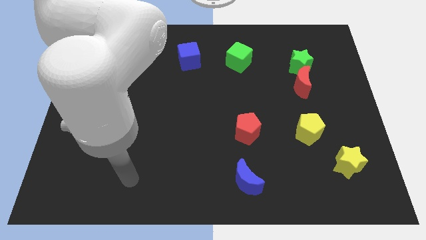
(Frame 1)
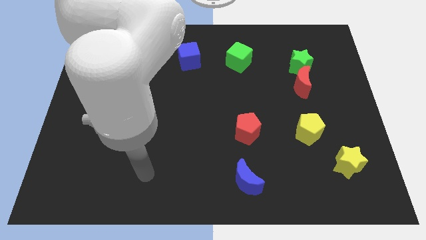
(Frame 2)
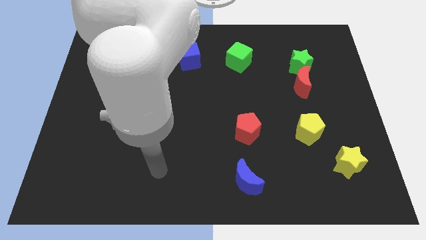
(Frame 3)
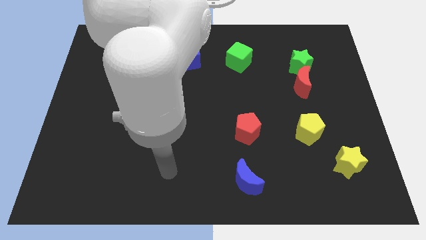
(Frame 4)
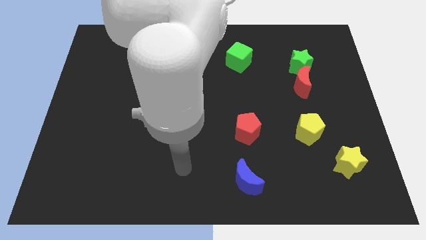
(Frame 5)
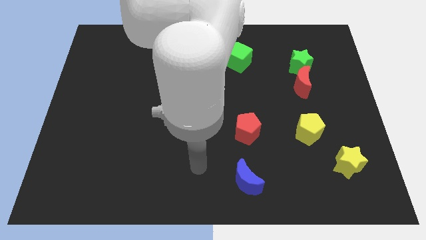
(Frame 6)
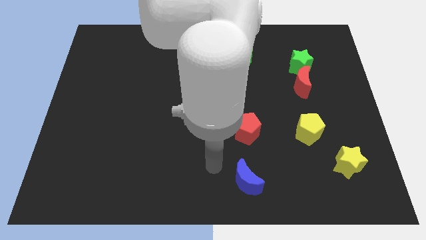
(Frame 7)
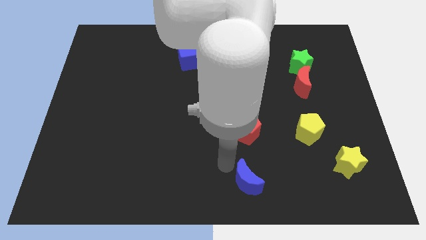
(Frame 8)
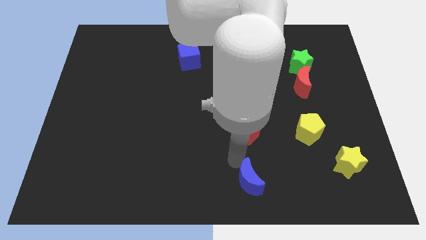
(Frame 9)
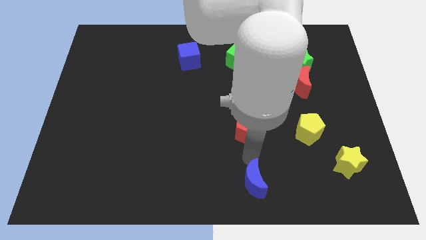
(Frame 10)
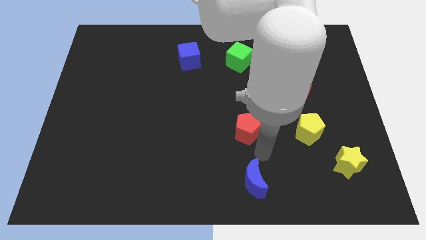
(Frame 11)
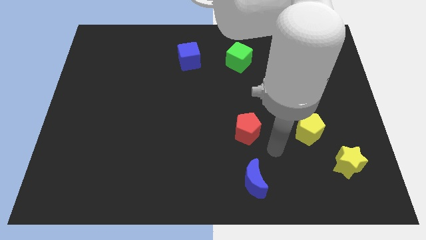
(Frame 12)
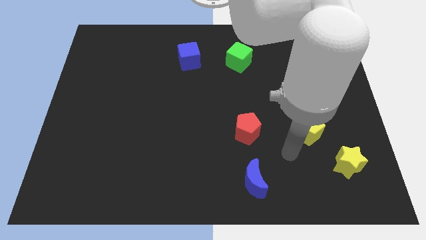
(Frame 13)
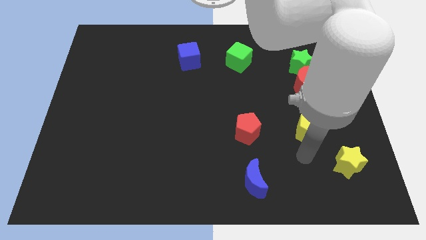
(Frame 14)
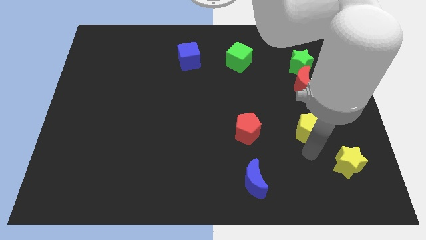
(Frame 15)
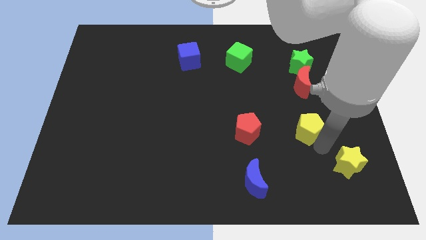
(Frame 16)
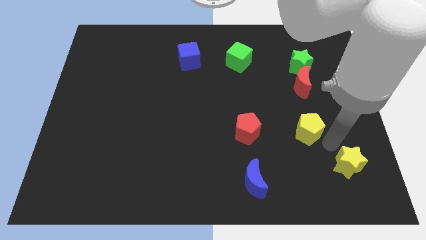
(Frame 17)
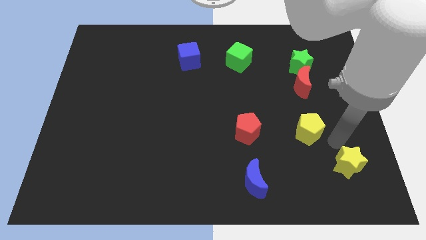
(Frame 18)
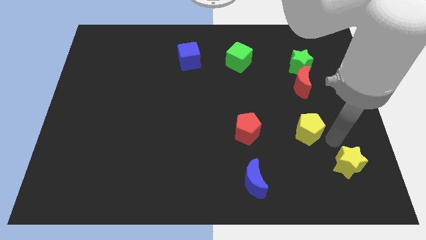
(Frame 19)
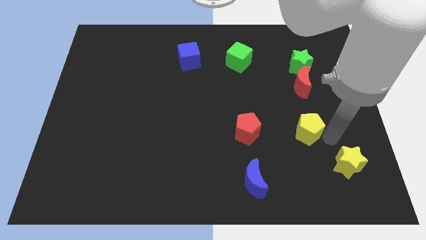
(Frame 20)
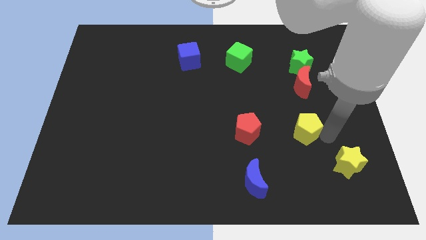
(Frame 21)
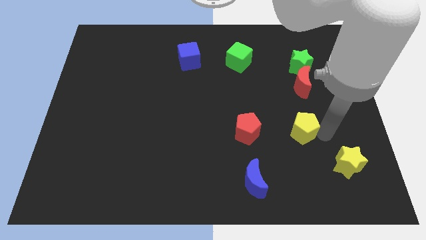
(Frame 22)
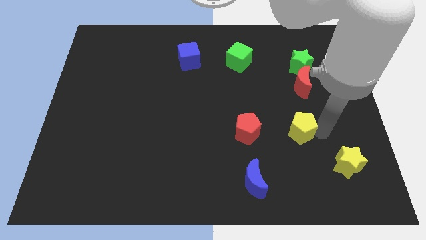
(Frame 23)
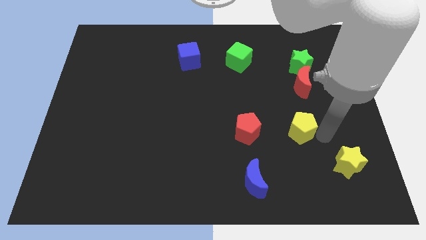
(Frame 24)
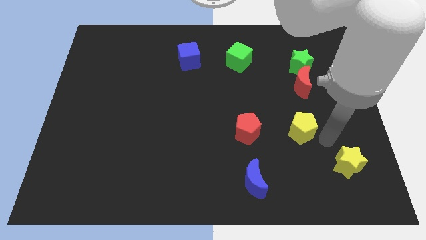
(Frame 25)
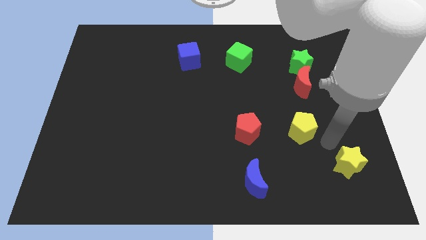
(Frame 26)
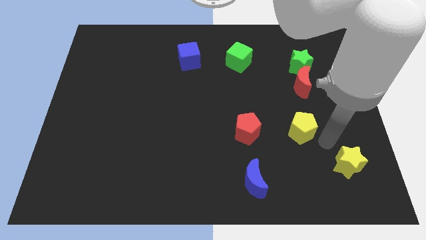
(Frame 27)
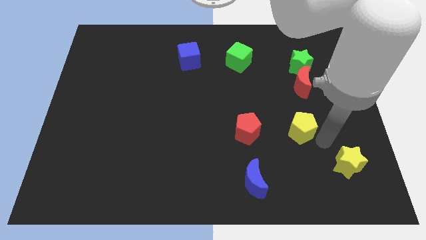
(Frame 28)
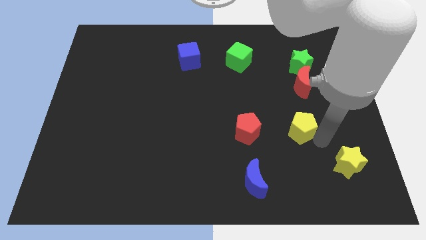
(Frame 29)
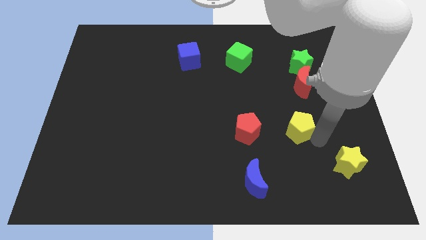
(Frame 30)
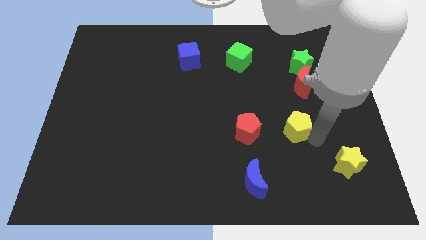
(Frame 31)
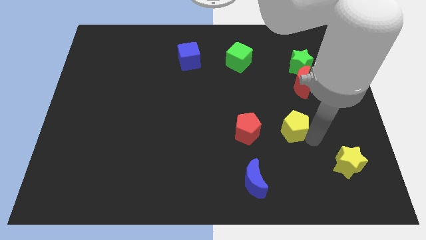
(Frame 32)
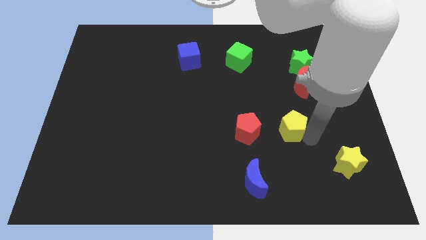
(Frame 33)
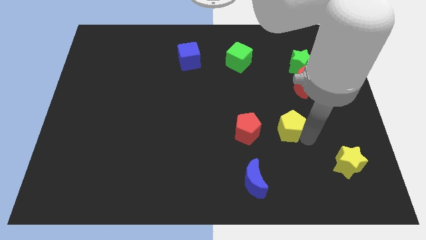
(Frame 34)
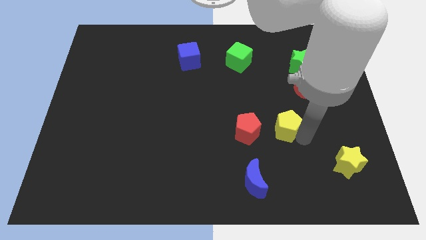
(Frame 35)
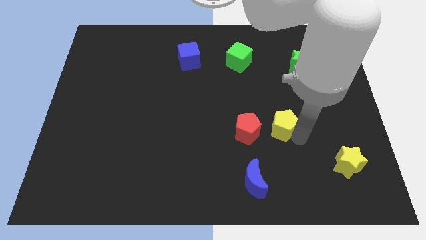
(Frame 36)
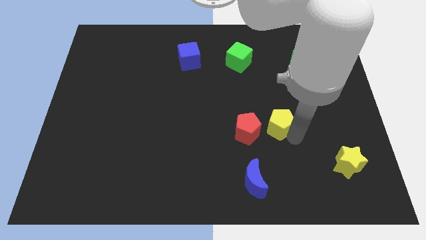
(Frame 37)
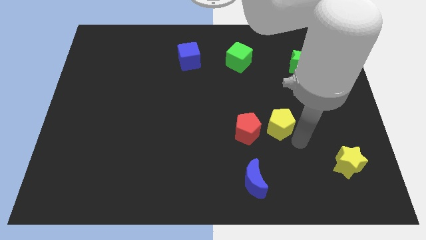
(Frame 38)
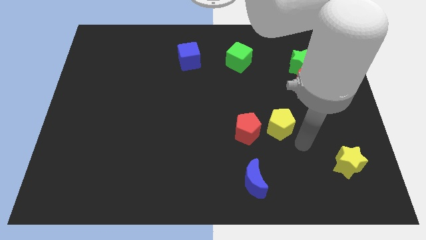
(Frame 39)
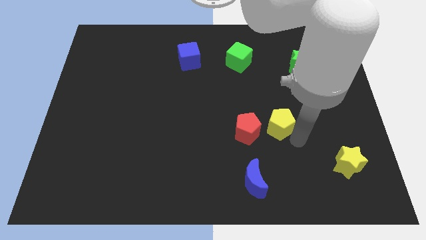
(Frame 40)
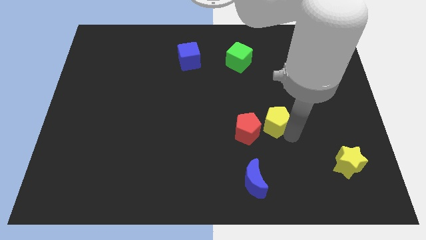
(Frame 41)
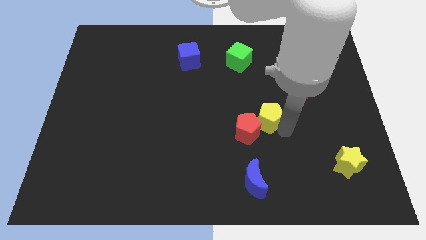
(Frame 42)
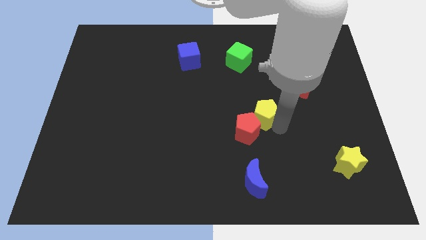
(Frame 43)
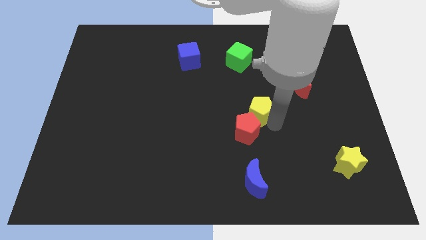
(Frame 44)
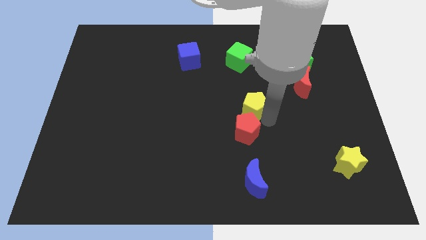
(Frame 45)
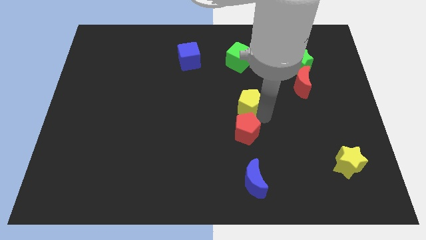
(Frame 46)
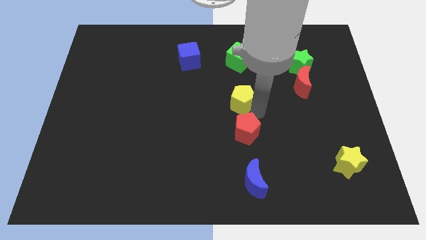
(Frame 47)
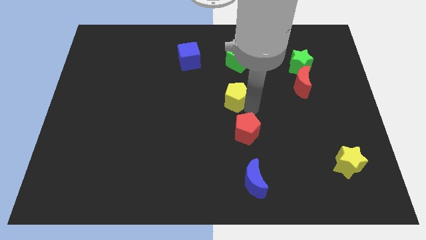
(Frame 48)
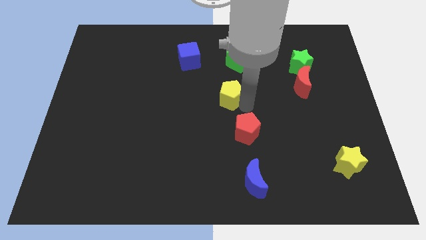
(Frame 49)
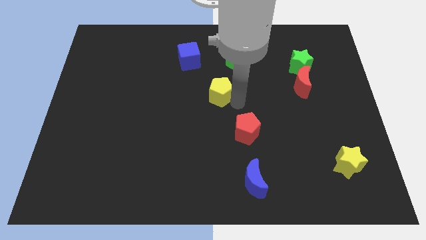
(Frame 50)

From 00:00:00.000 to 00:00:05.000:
push the yellow pentagon upwards and left diagonally

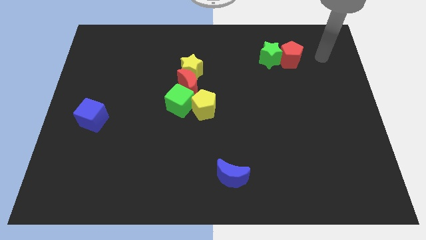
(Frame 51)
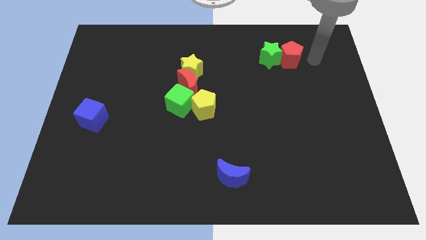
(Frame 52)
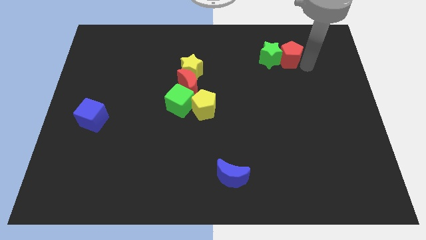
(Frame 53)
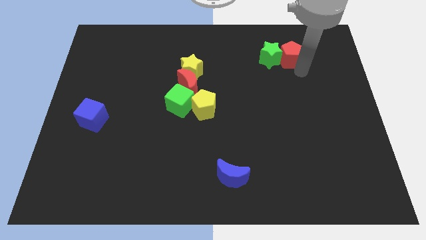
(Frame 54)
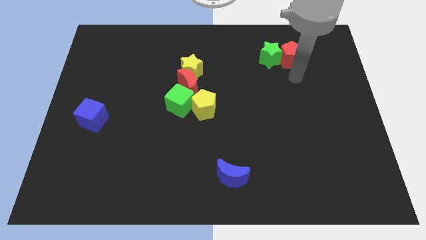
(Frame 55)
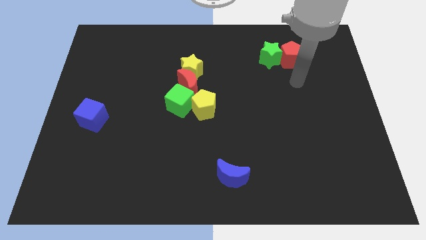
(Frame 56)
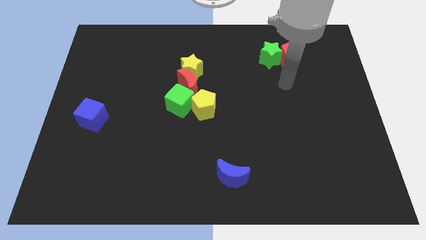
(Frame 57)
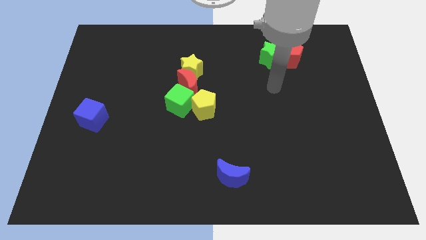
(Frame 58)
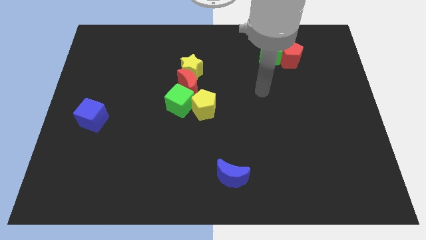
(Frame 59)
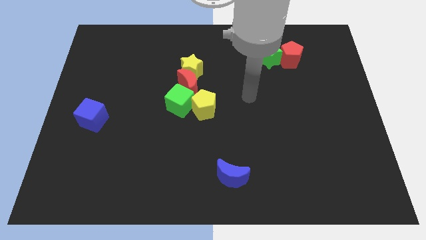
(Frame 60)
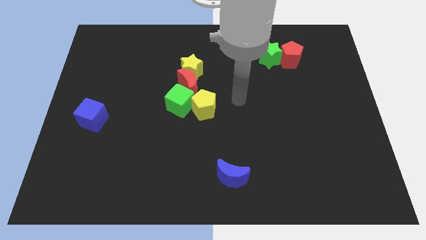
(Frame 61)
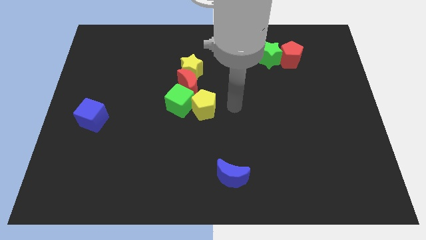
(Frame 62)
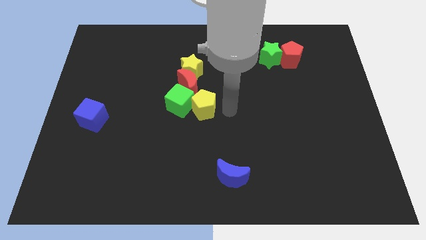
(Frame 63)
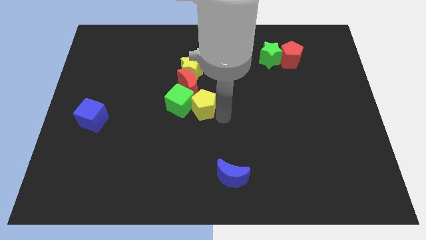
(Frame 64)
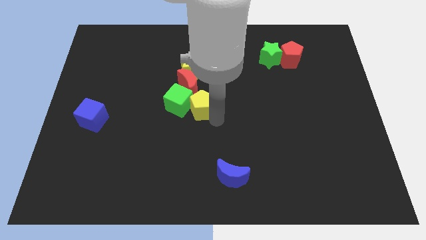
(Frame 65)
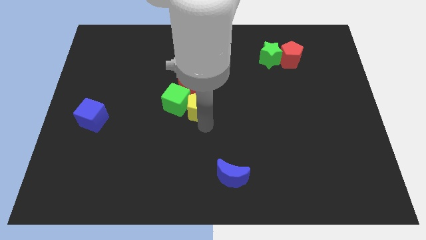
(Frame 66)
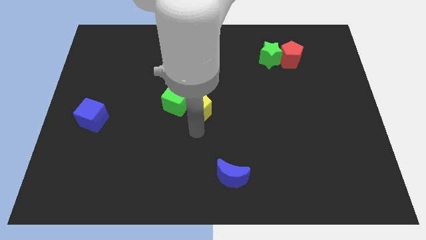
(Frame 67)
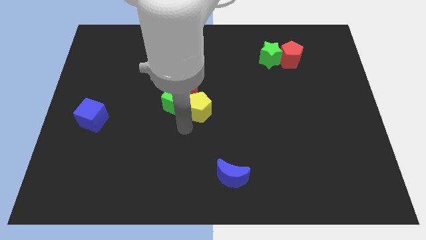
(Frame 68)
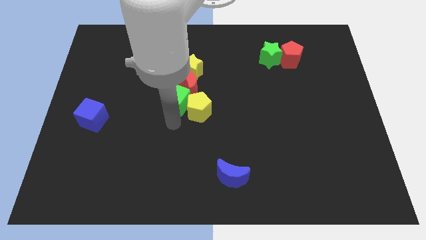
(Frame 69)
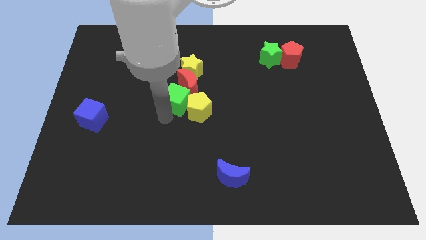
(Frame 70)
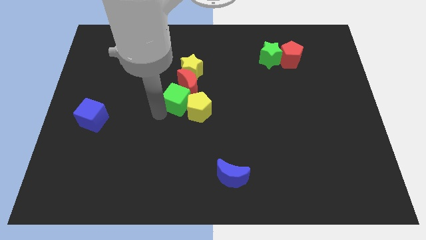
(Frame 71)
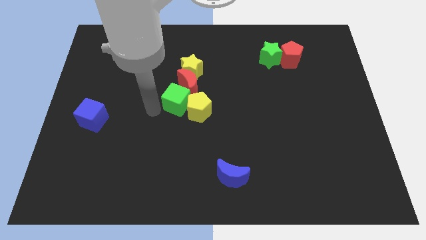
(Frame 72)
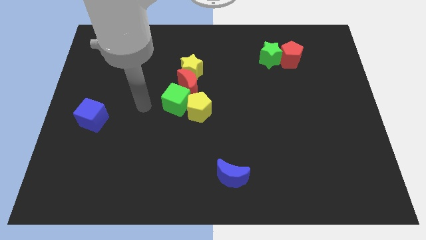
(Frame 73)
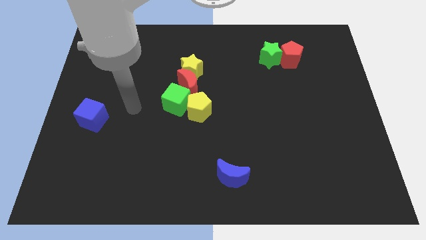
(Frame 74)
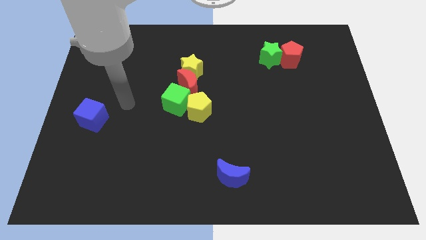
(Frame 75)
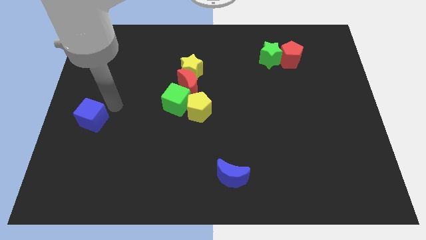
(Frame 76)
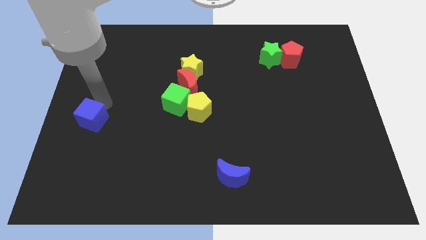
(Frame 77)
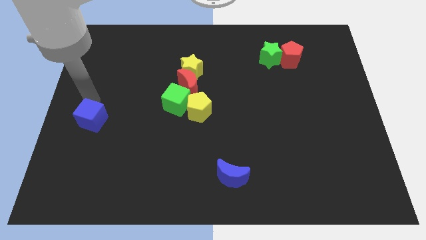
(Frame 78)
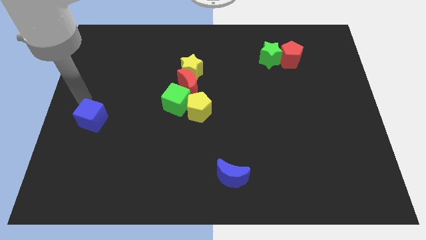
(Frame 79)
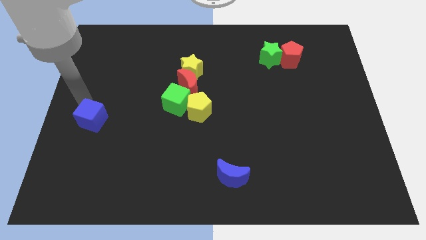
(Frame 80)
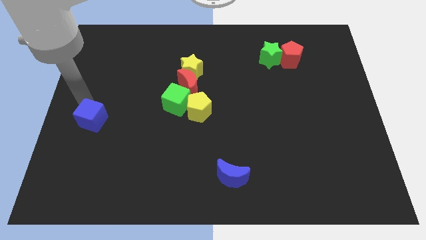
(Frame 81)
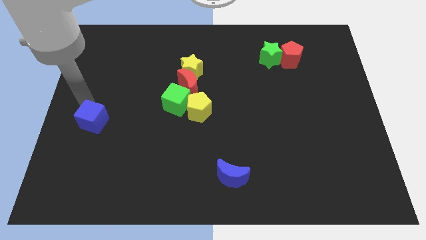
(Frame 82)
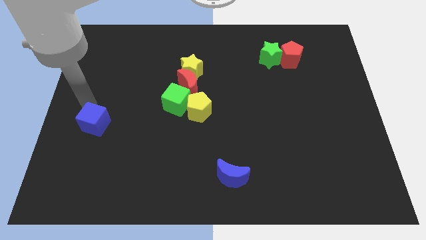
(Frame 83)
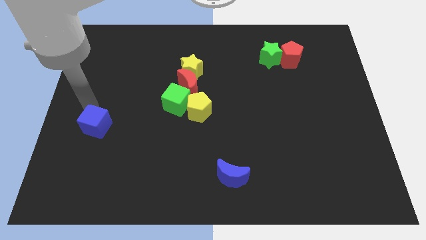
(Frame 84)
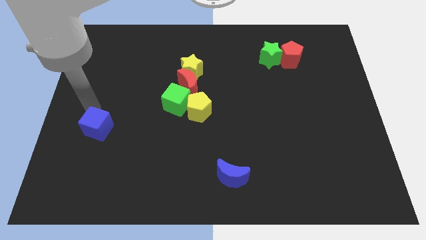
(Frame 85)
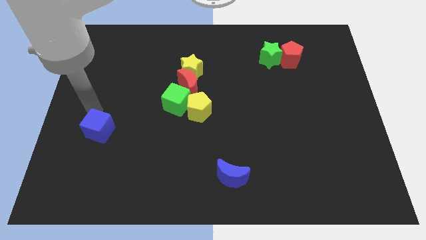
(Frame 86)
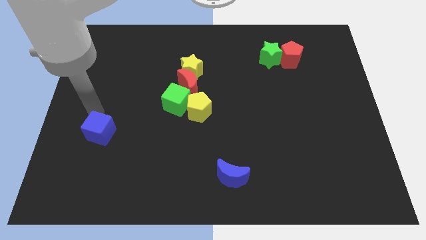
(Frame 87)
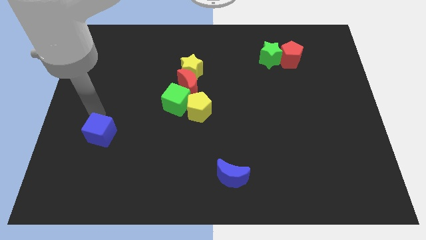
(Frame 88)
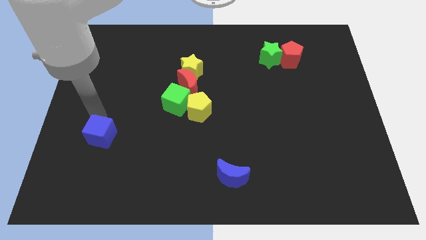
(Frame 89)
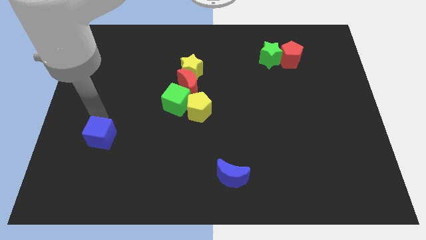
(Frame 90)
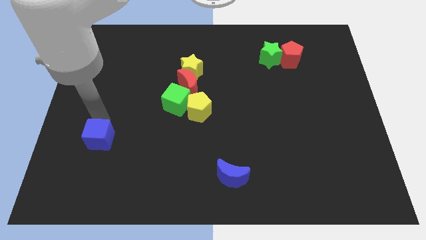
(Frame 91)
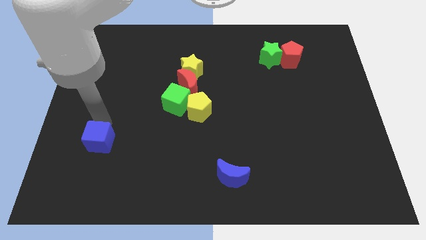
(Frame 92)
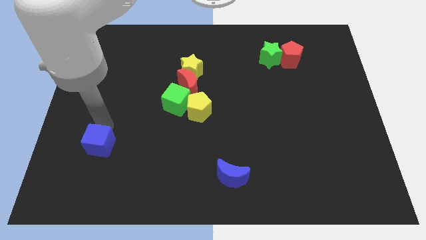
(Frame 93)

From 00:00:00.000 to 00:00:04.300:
slide the blue cube slightly down and right diagonally
